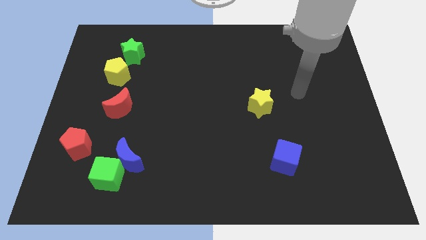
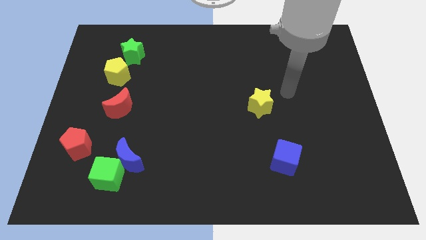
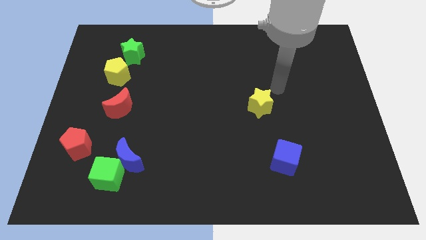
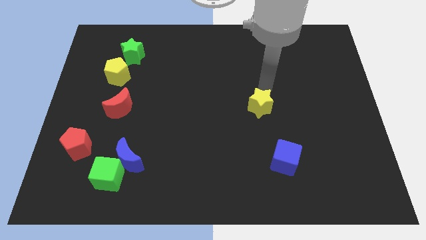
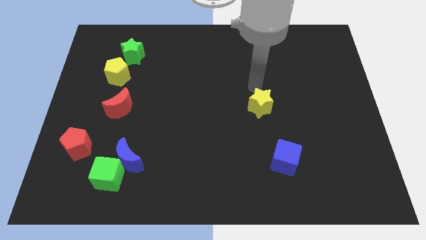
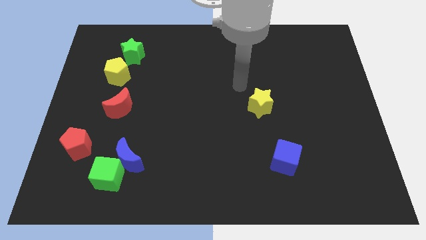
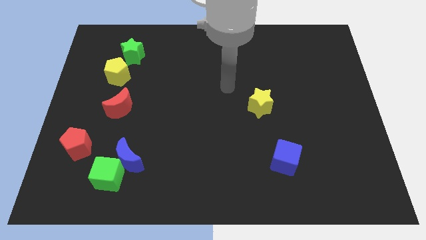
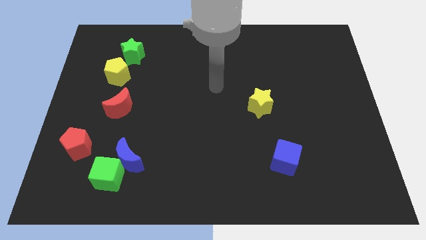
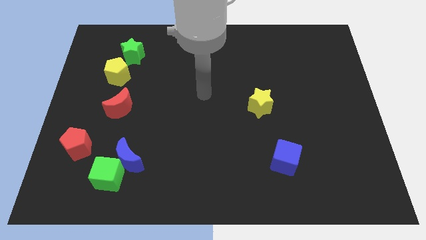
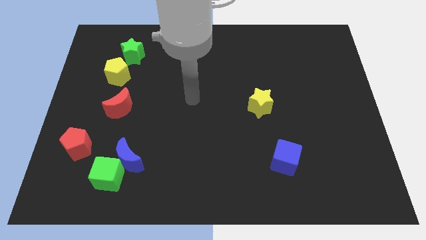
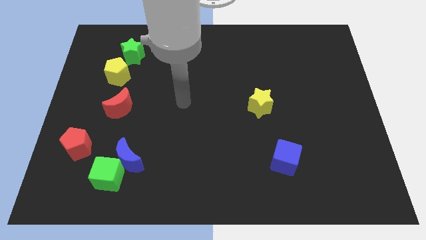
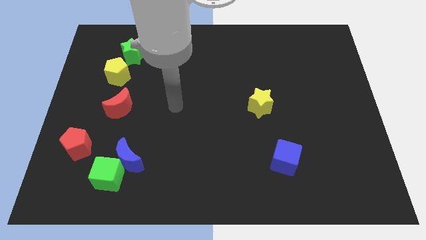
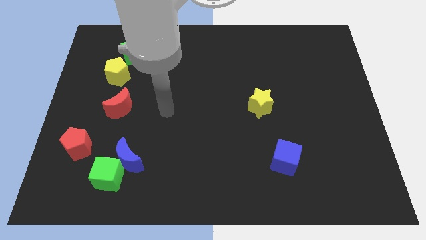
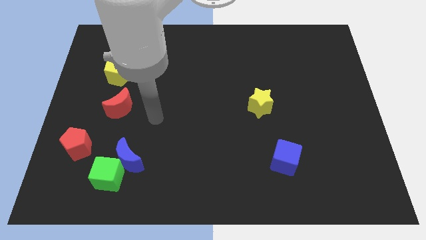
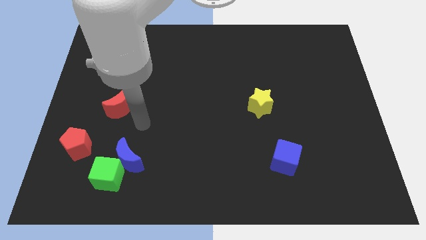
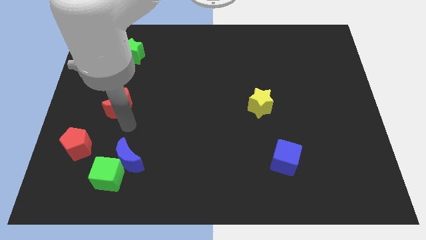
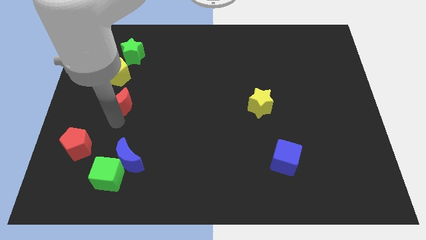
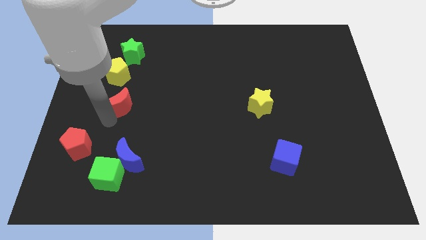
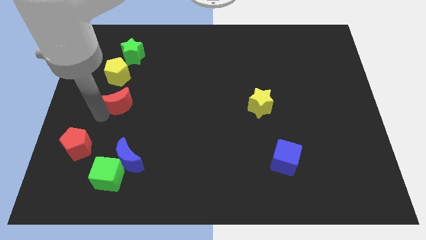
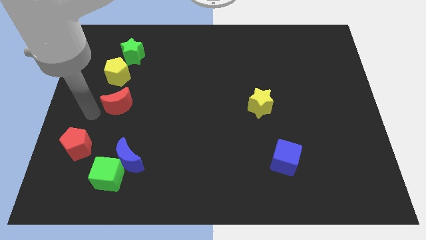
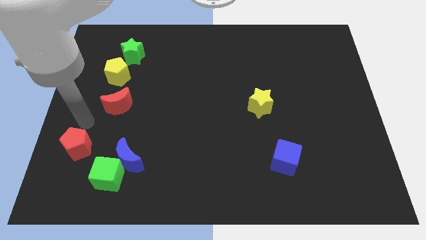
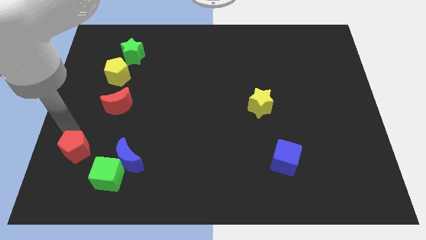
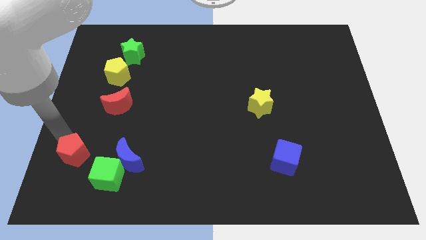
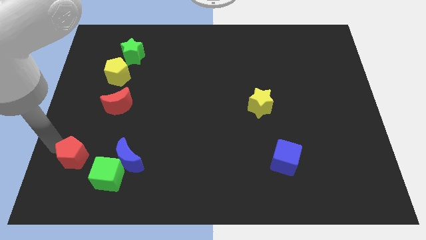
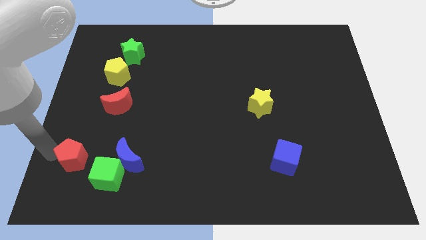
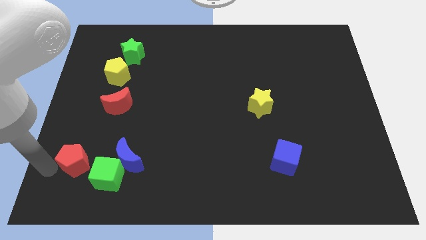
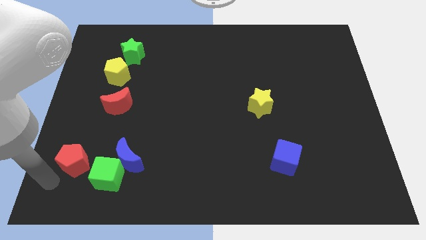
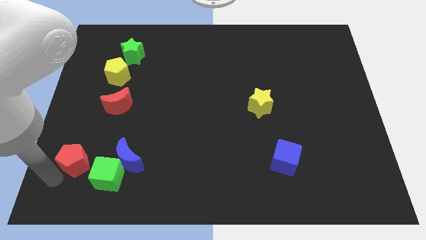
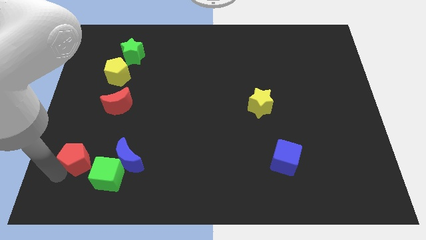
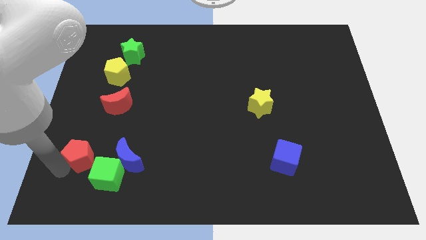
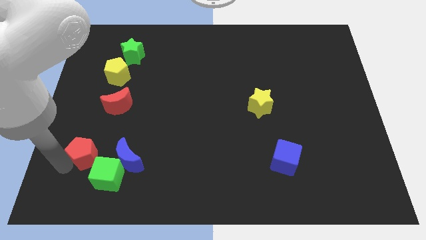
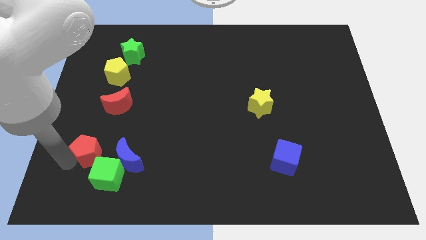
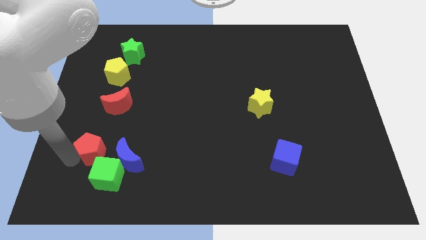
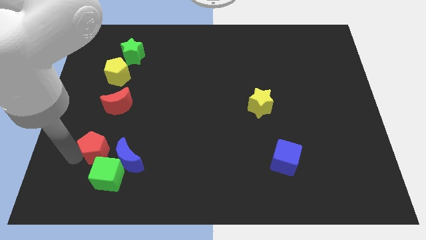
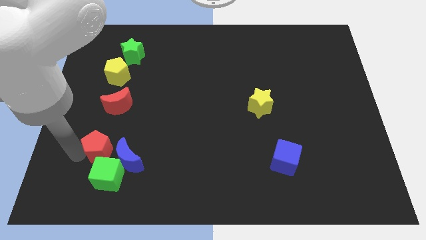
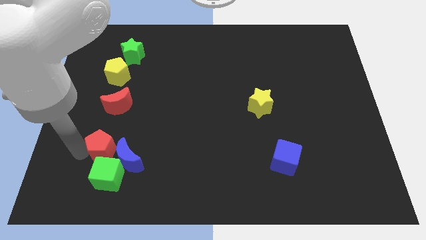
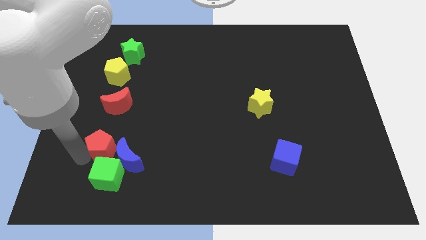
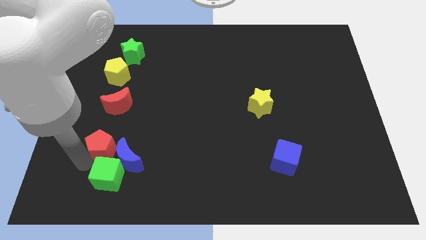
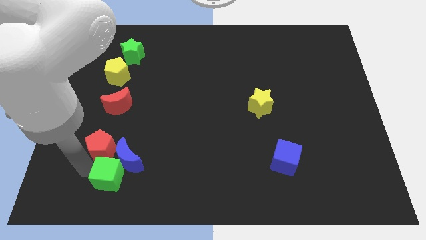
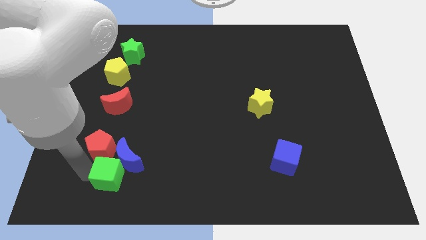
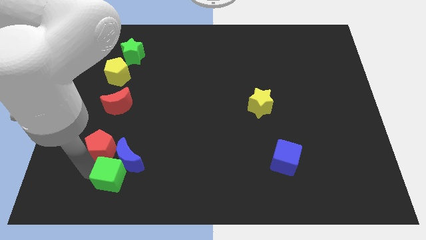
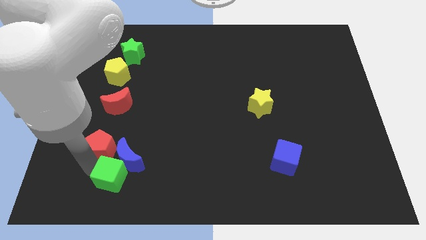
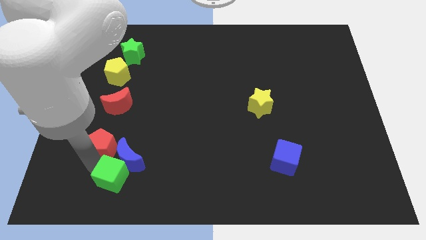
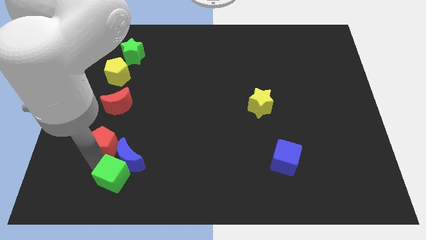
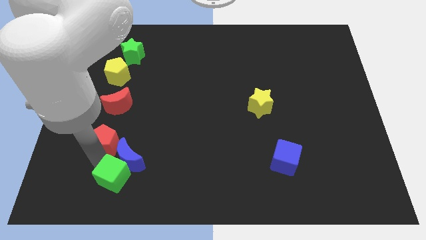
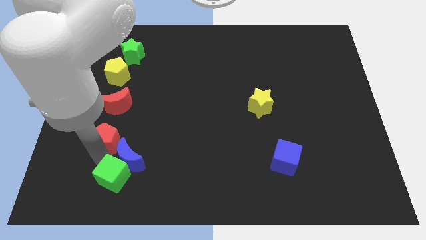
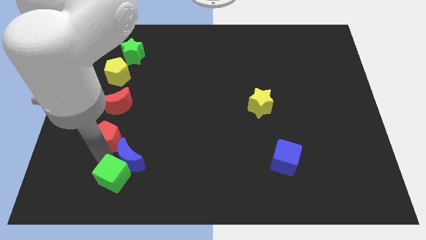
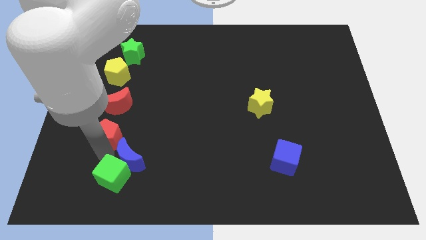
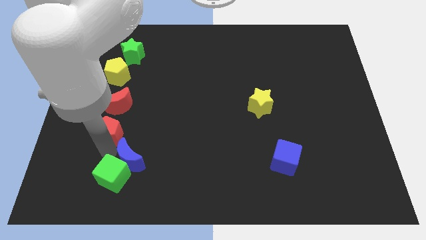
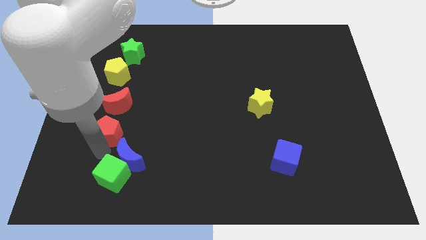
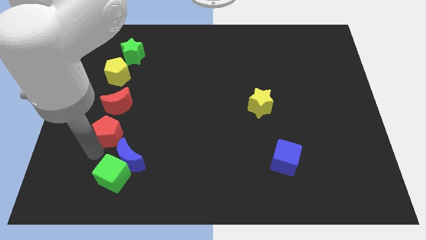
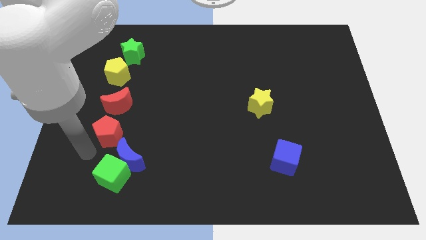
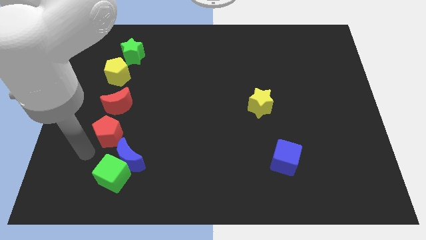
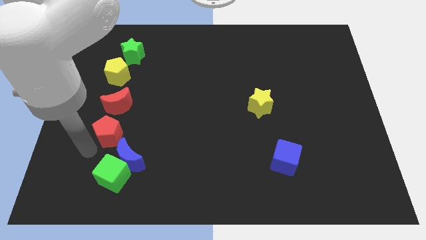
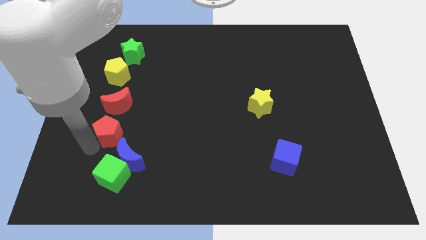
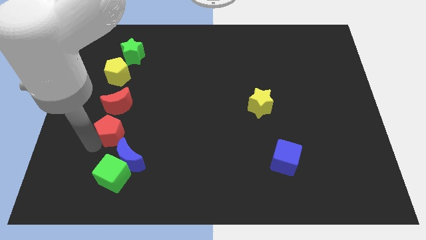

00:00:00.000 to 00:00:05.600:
push the red pentagon upwards and to the right a little bit

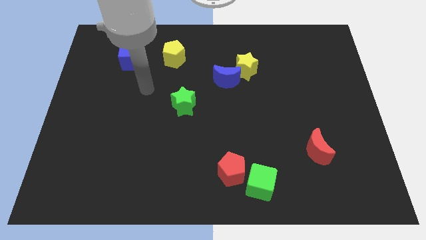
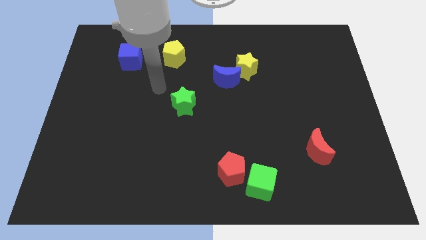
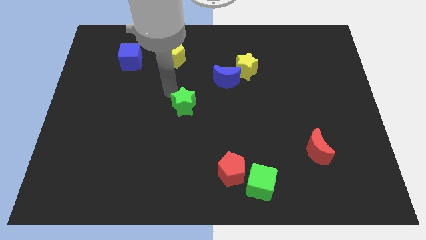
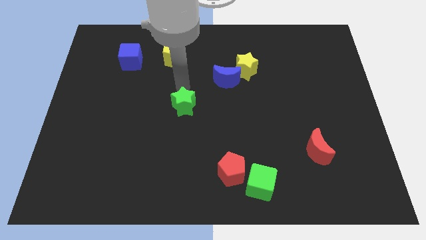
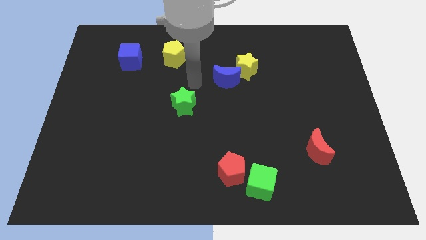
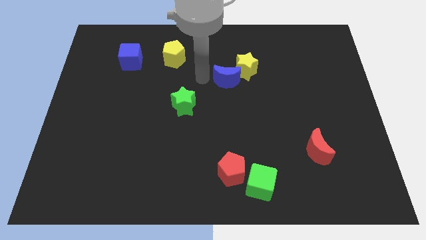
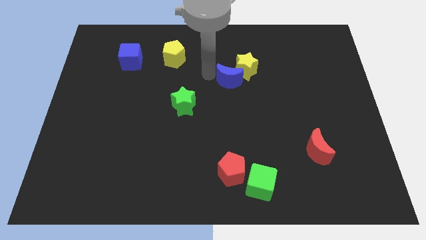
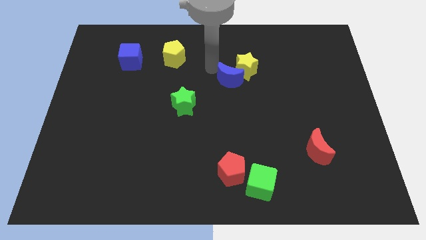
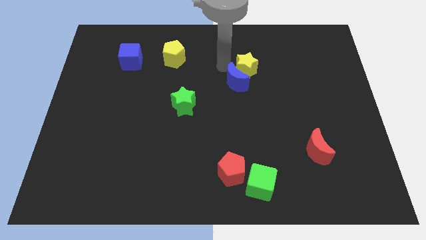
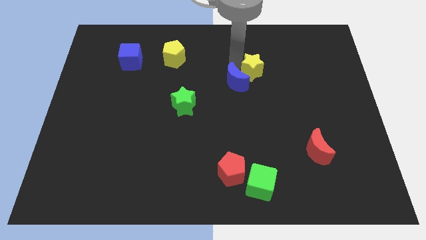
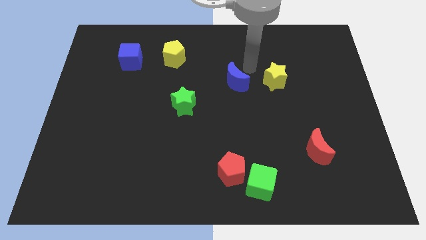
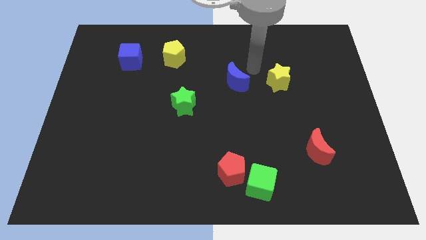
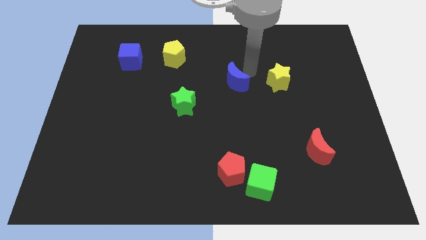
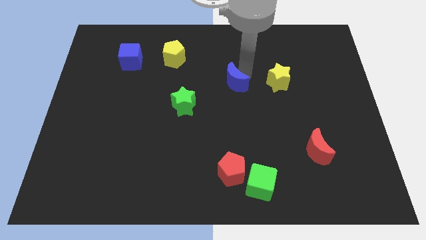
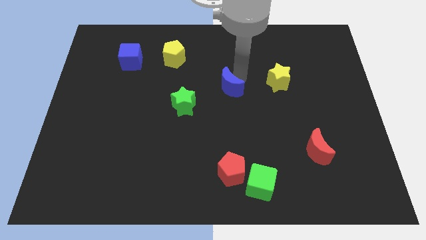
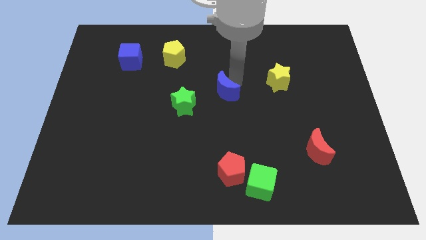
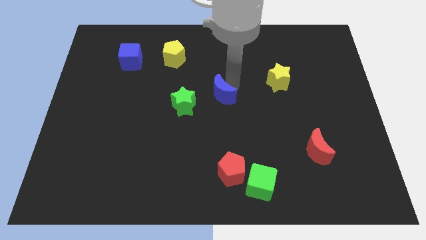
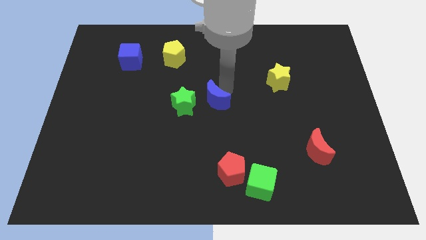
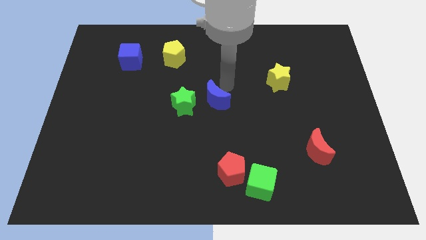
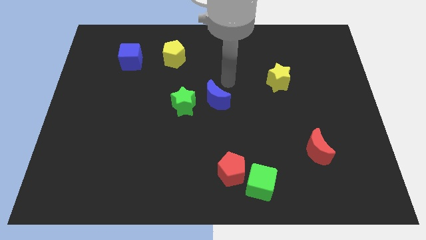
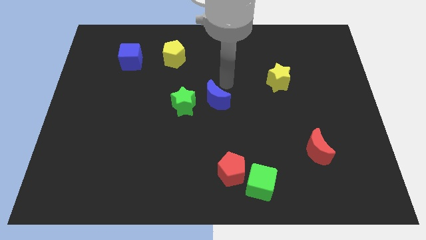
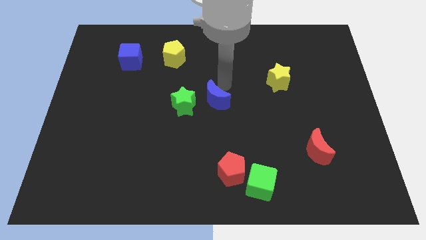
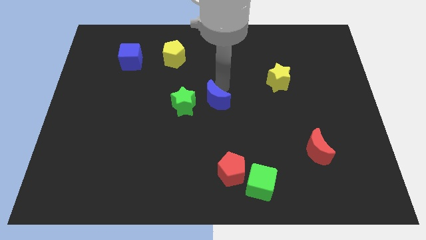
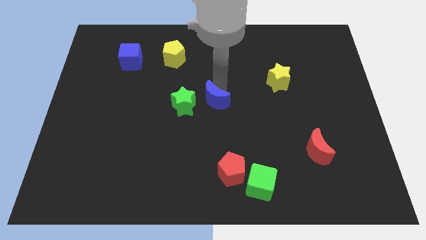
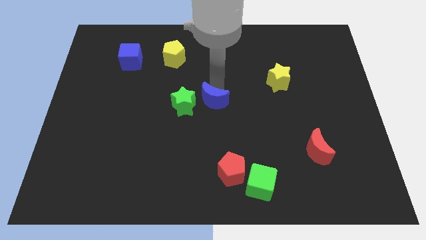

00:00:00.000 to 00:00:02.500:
move the blue moon diagonally down and left a little bit
